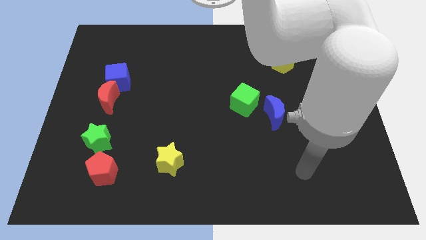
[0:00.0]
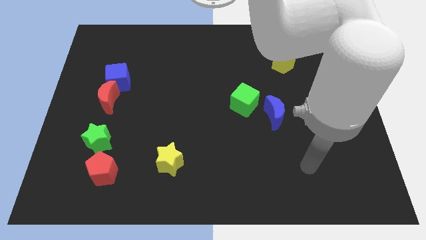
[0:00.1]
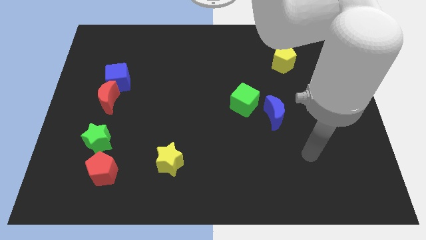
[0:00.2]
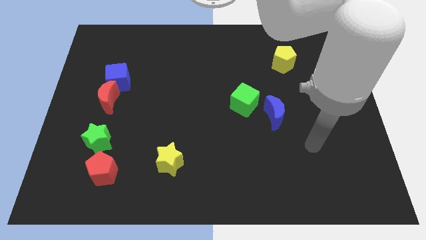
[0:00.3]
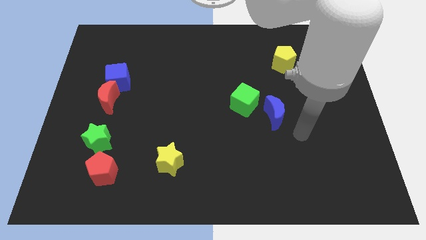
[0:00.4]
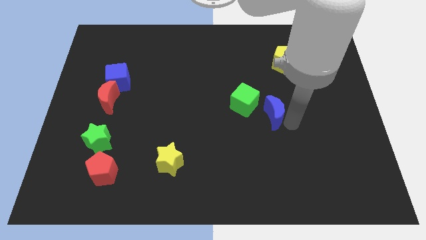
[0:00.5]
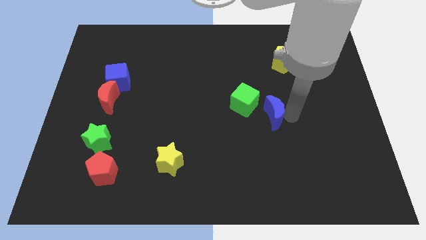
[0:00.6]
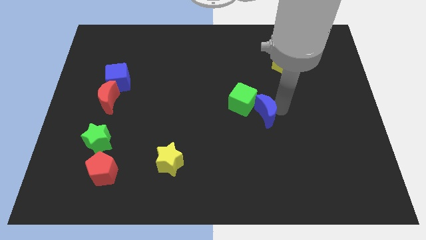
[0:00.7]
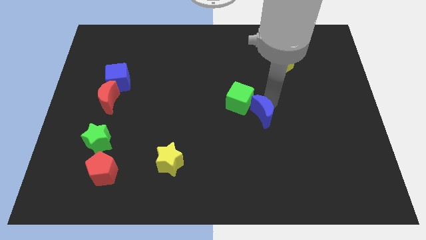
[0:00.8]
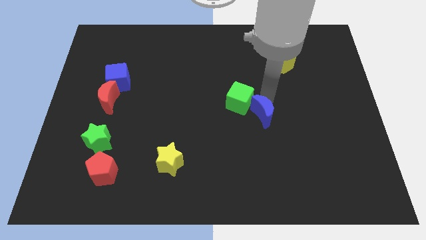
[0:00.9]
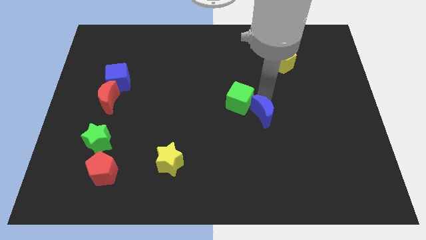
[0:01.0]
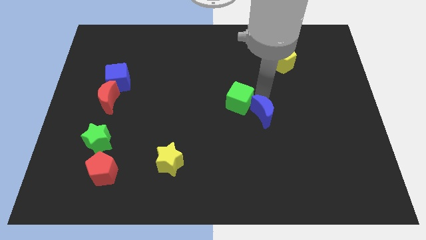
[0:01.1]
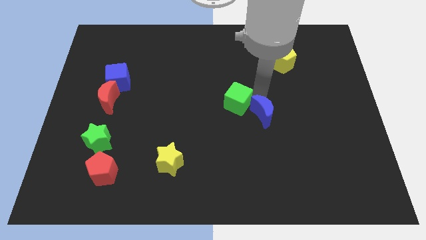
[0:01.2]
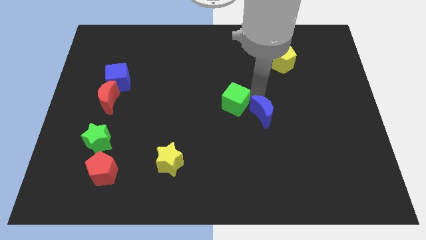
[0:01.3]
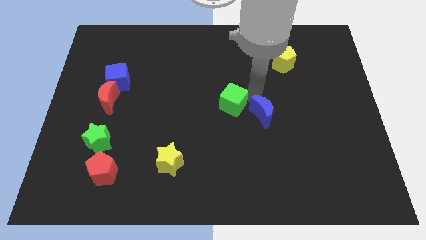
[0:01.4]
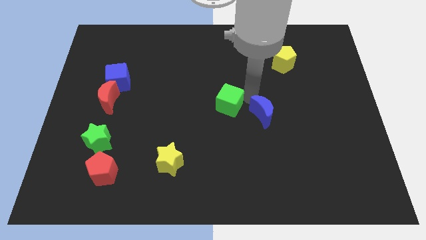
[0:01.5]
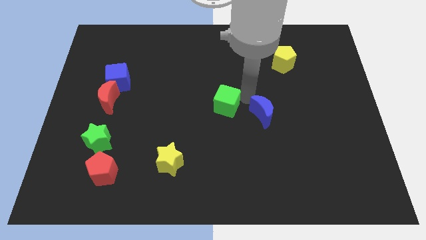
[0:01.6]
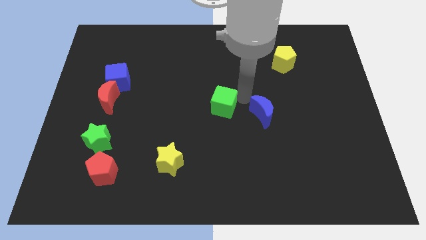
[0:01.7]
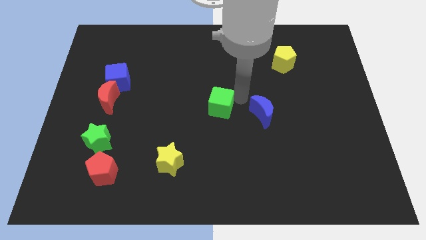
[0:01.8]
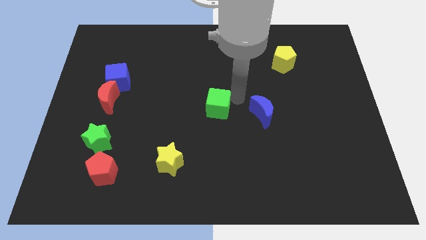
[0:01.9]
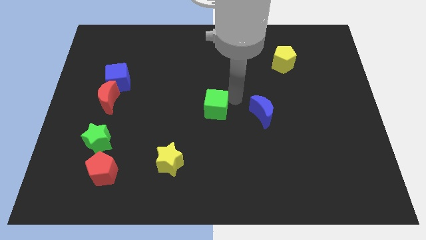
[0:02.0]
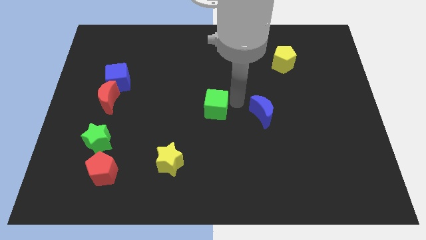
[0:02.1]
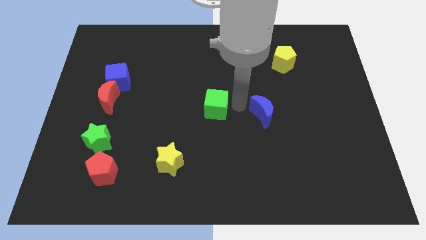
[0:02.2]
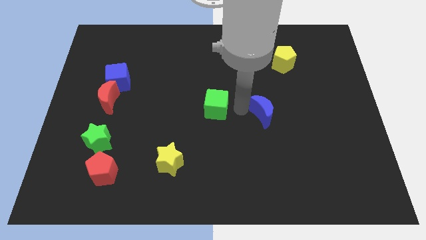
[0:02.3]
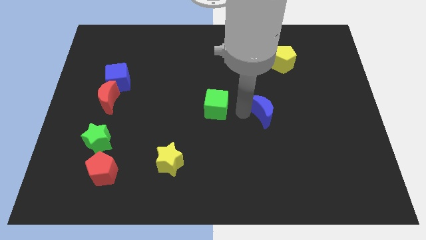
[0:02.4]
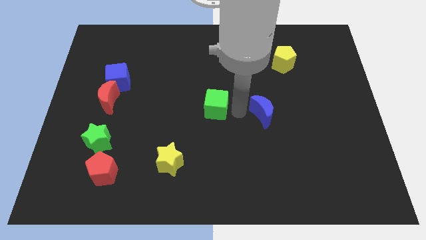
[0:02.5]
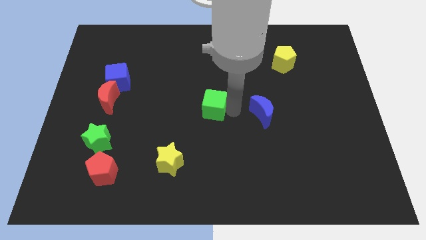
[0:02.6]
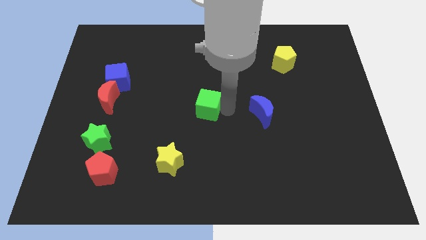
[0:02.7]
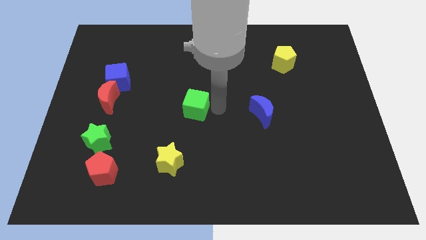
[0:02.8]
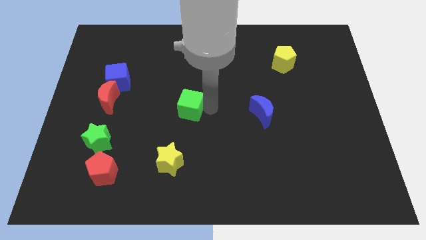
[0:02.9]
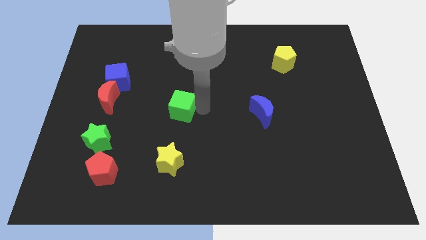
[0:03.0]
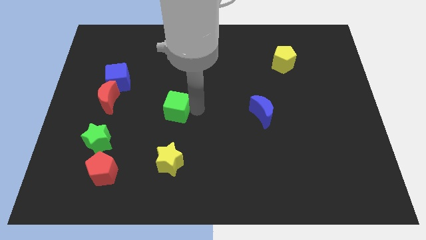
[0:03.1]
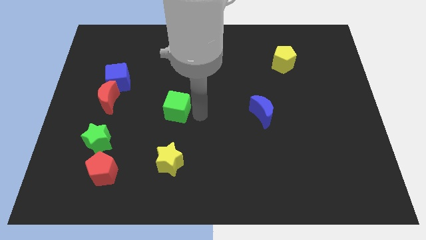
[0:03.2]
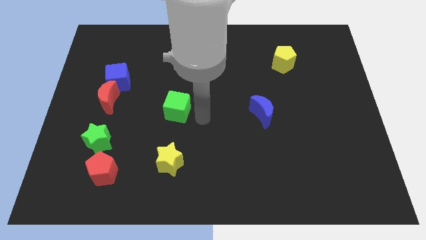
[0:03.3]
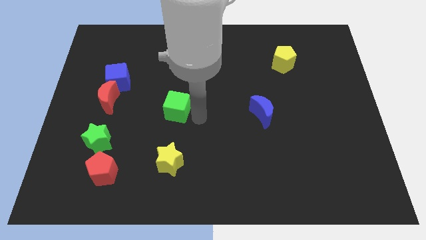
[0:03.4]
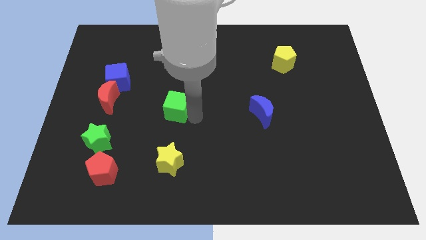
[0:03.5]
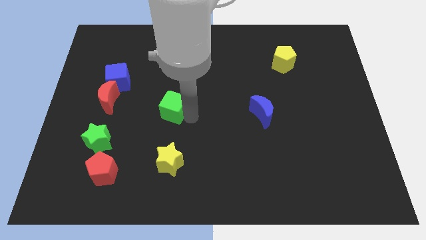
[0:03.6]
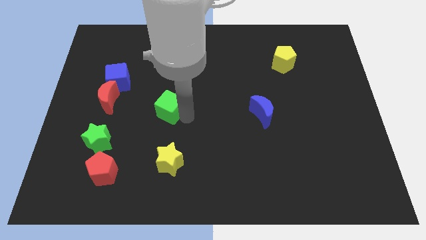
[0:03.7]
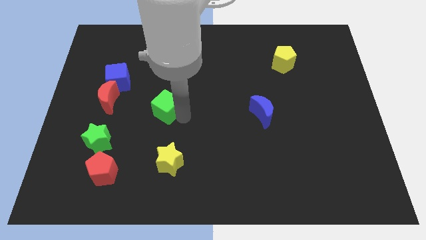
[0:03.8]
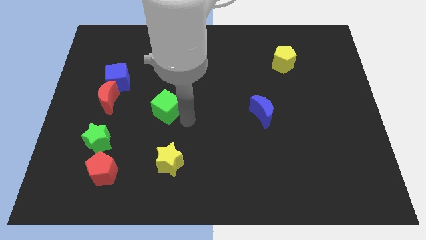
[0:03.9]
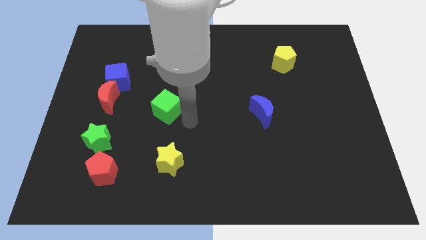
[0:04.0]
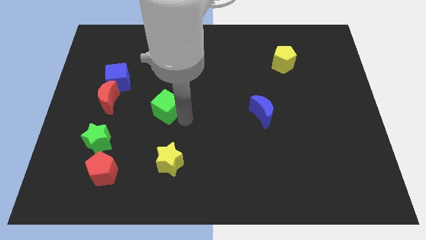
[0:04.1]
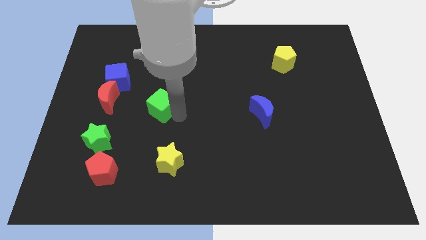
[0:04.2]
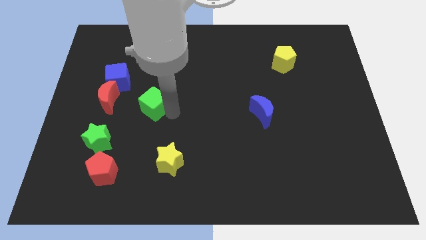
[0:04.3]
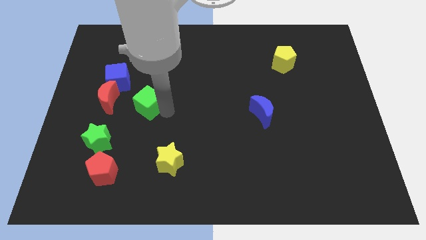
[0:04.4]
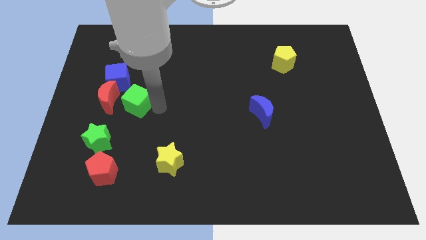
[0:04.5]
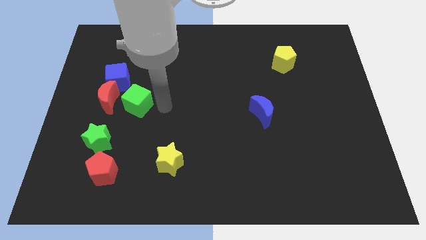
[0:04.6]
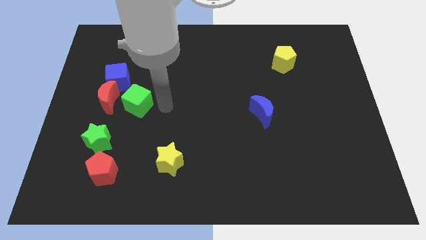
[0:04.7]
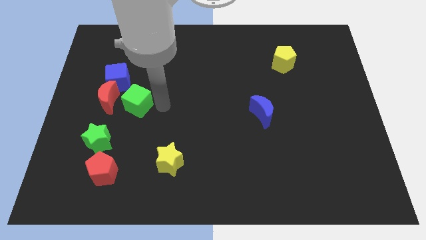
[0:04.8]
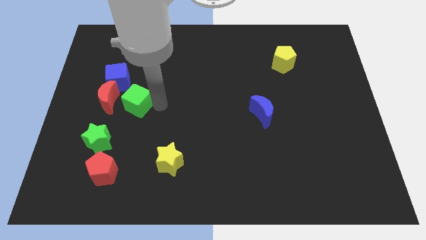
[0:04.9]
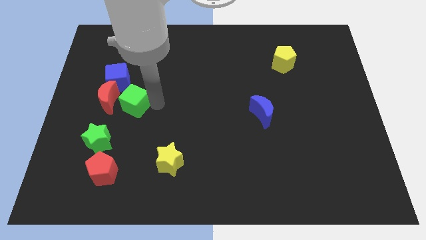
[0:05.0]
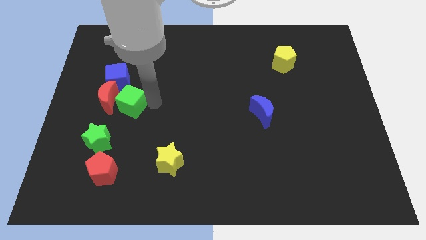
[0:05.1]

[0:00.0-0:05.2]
put the green cube close to the red moon

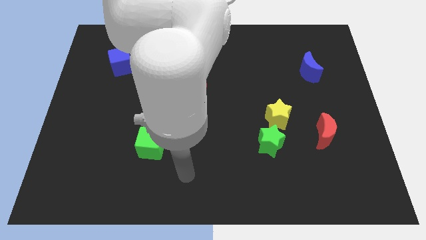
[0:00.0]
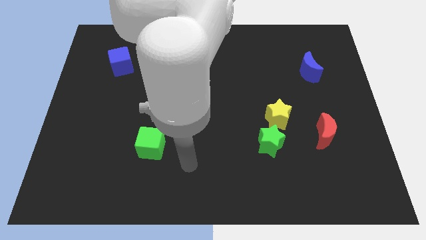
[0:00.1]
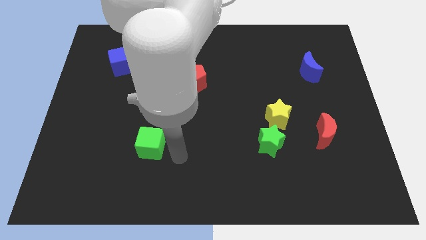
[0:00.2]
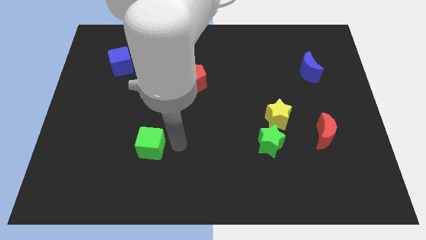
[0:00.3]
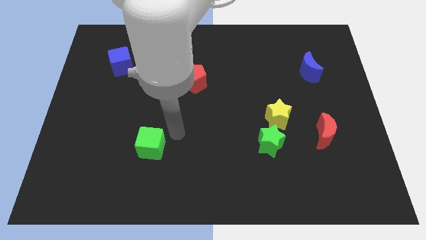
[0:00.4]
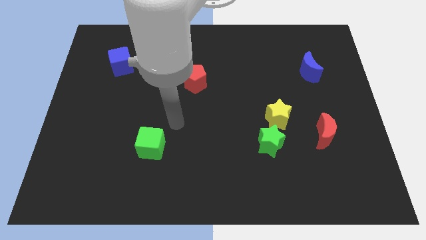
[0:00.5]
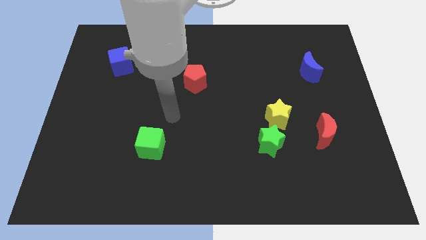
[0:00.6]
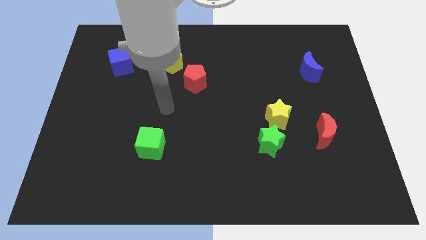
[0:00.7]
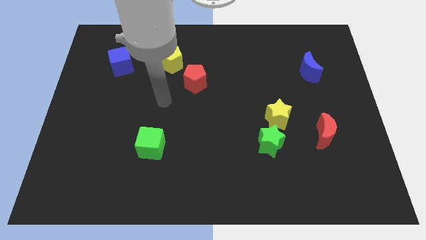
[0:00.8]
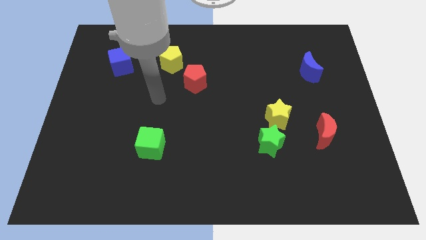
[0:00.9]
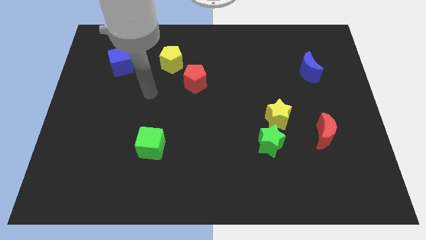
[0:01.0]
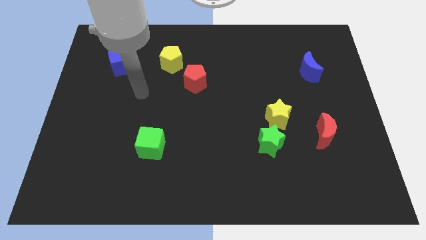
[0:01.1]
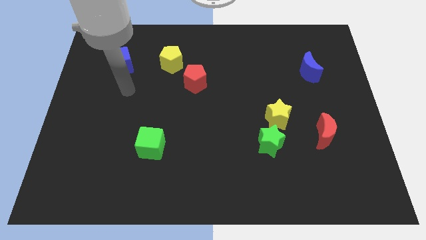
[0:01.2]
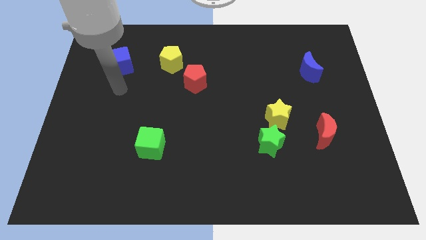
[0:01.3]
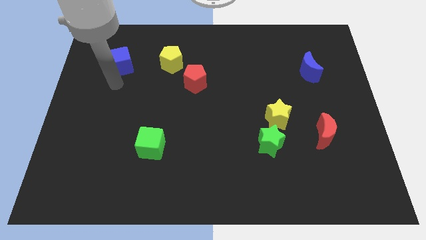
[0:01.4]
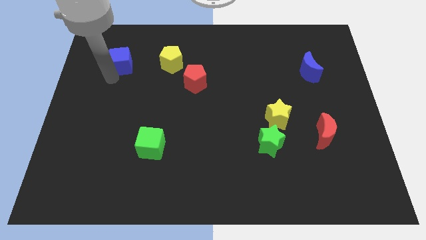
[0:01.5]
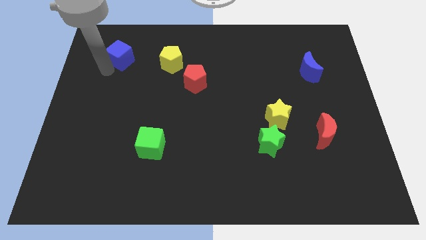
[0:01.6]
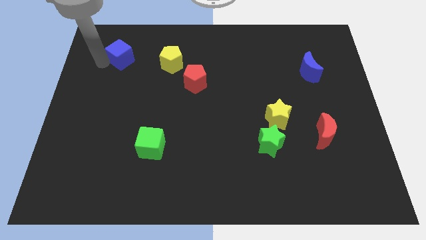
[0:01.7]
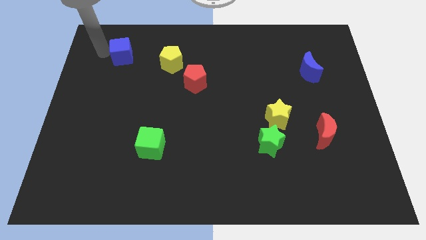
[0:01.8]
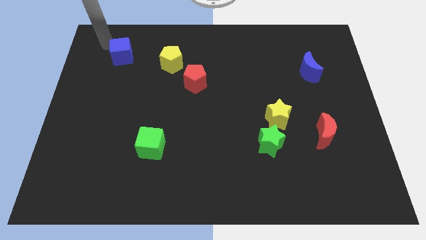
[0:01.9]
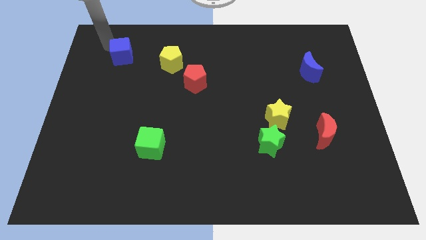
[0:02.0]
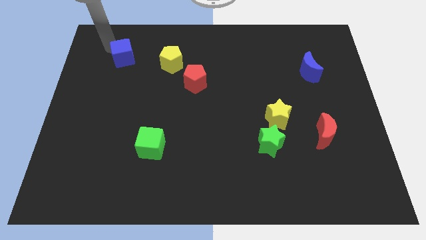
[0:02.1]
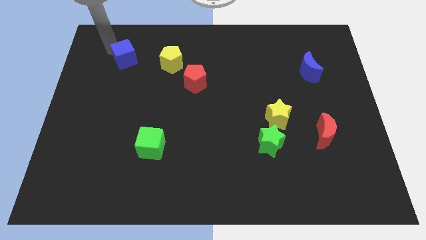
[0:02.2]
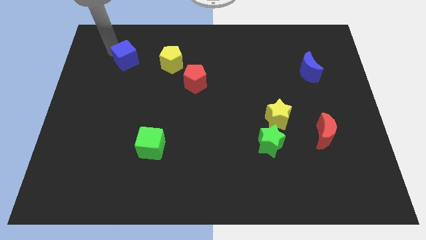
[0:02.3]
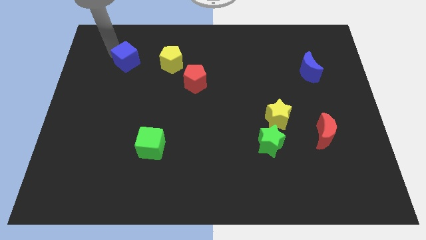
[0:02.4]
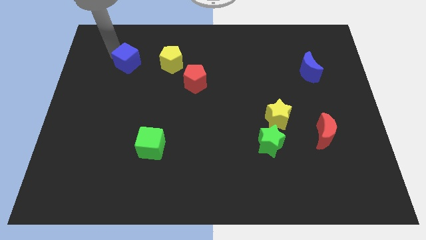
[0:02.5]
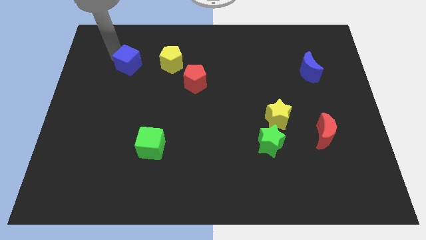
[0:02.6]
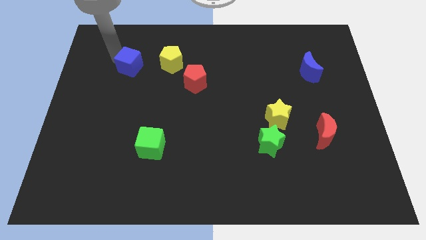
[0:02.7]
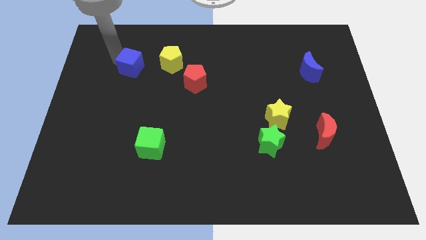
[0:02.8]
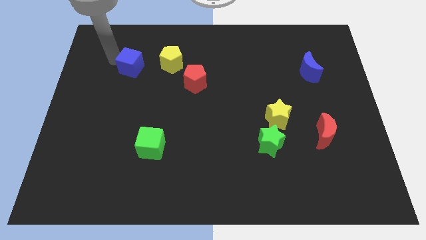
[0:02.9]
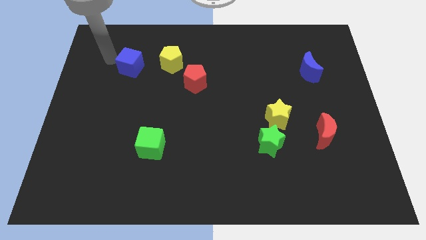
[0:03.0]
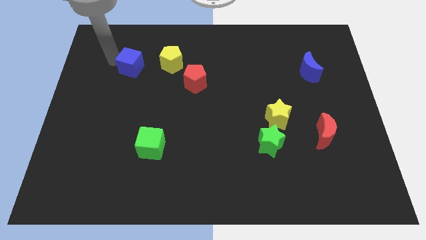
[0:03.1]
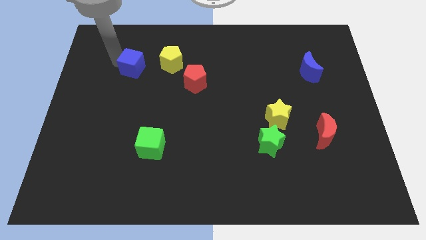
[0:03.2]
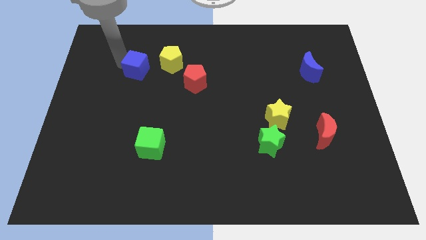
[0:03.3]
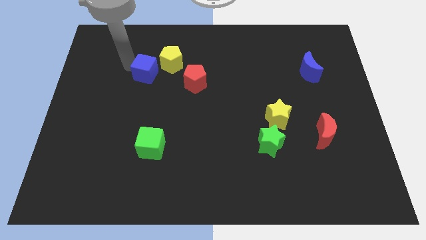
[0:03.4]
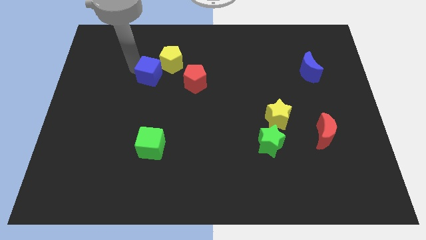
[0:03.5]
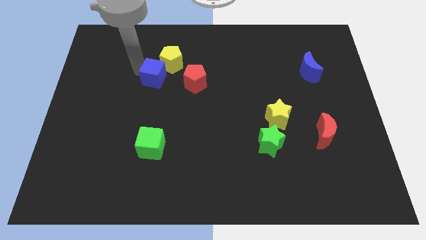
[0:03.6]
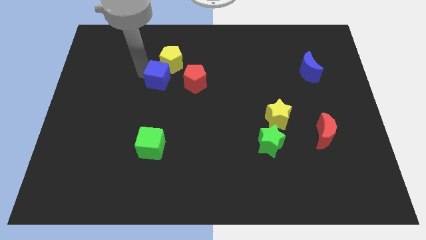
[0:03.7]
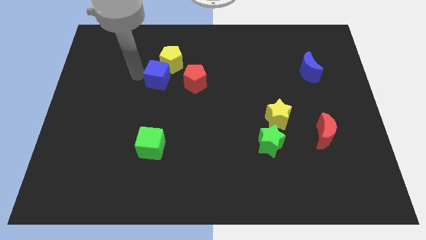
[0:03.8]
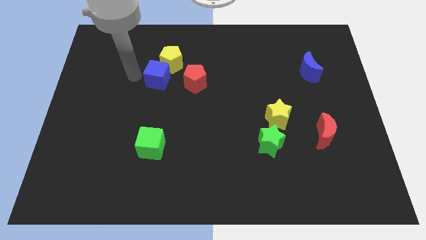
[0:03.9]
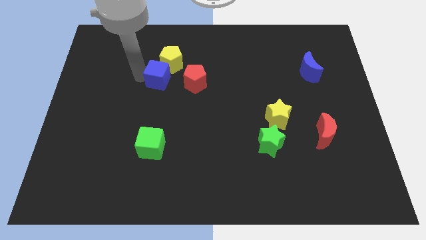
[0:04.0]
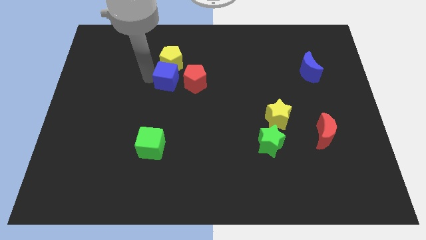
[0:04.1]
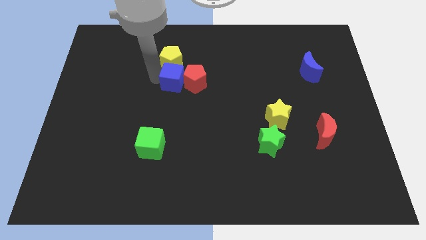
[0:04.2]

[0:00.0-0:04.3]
push the blue cube close to the red pentagon
